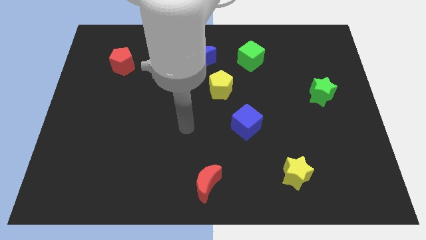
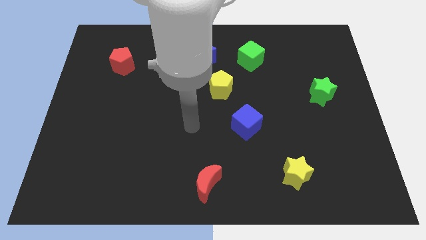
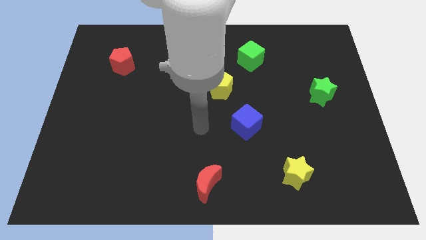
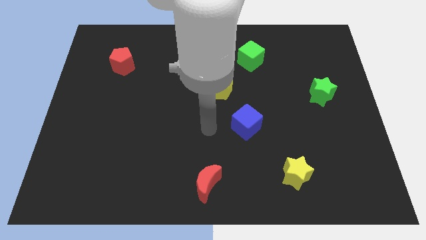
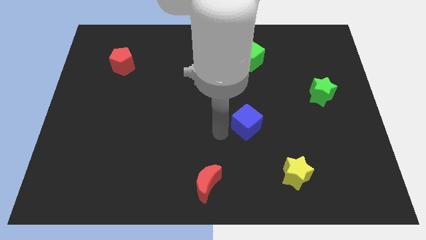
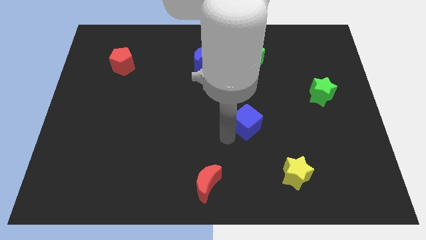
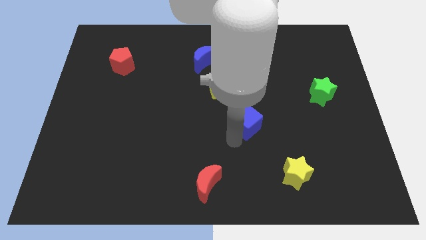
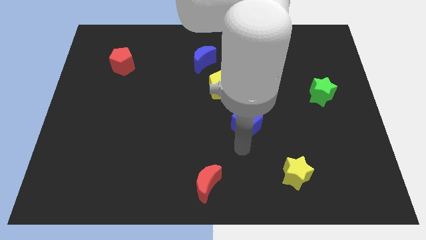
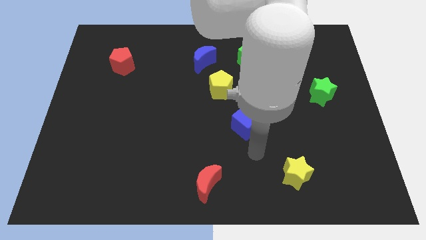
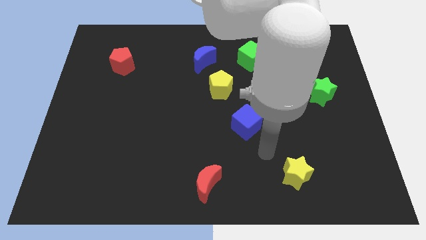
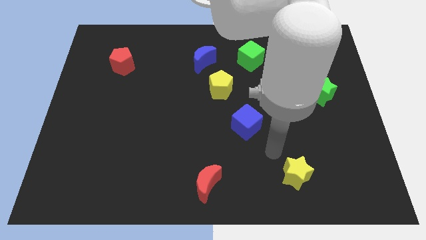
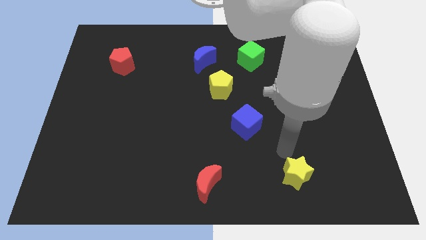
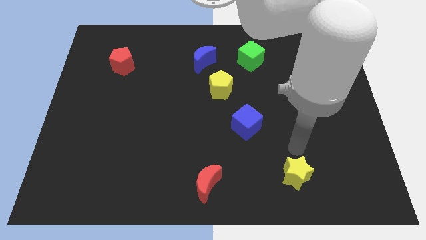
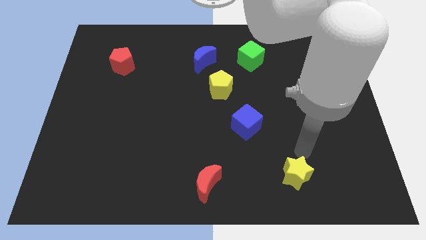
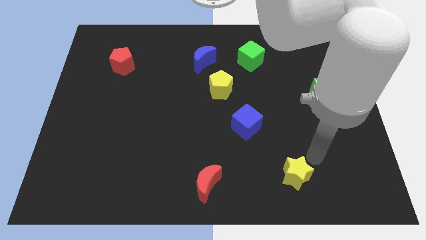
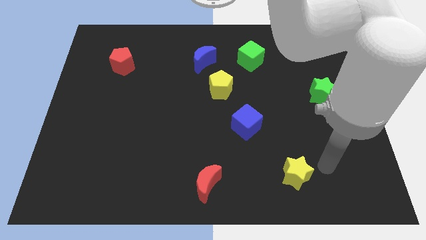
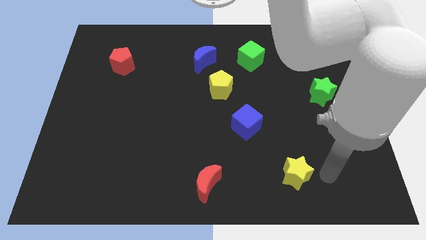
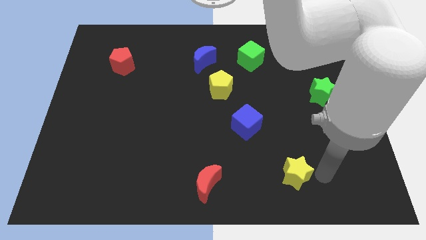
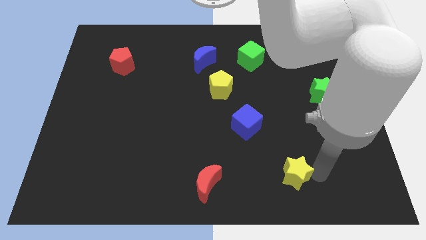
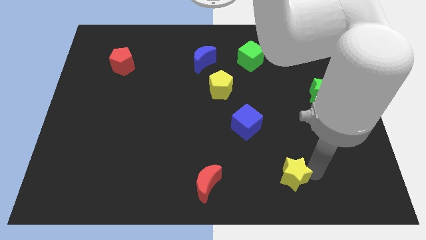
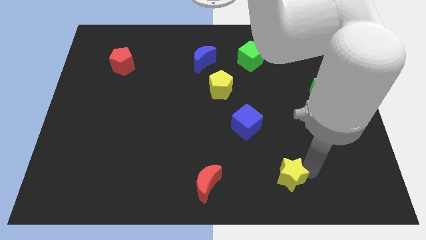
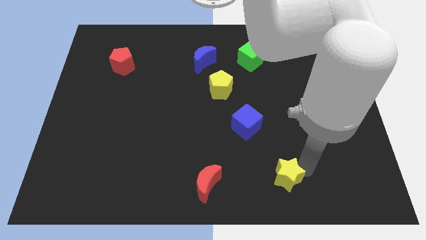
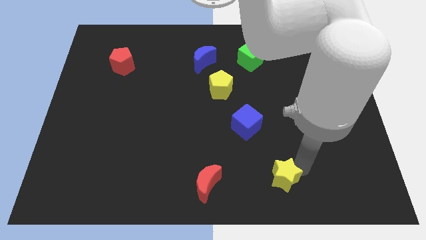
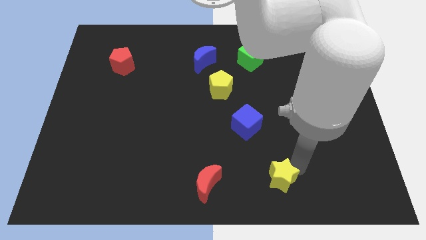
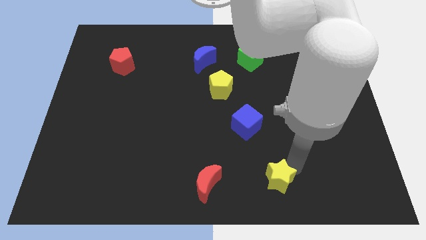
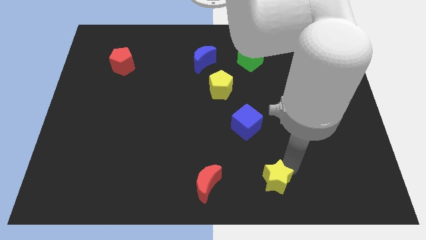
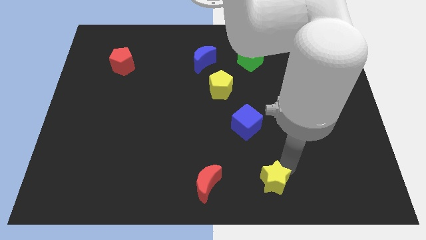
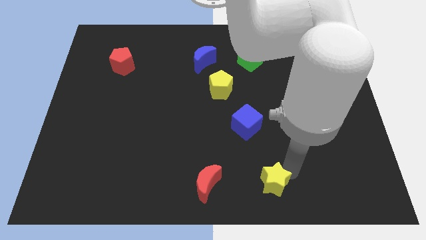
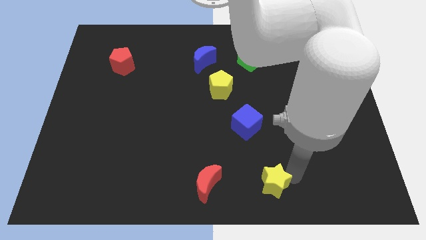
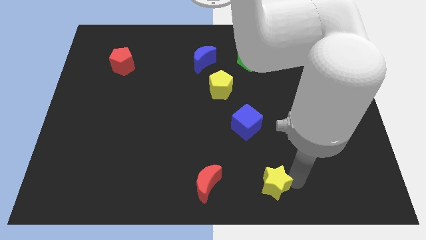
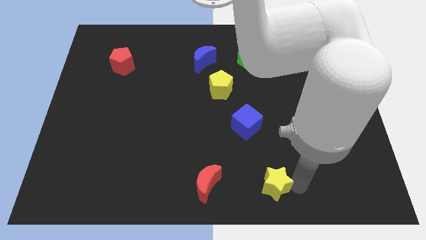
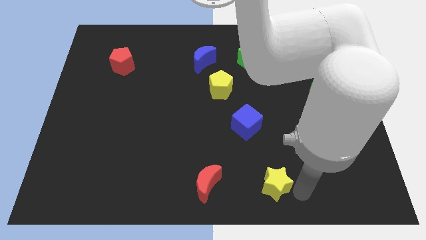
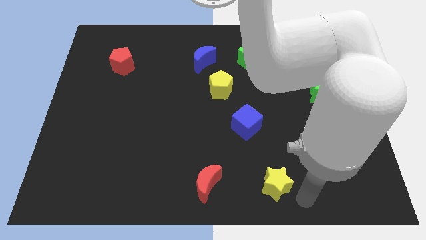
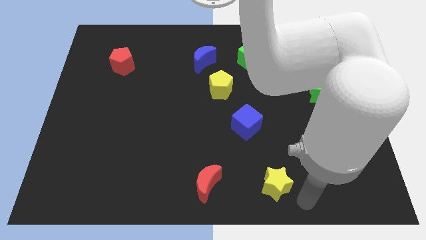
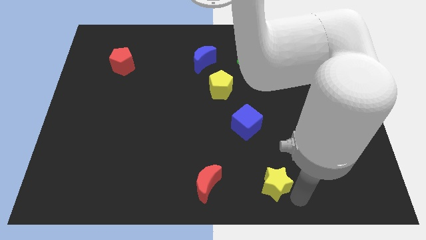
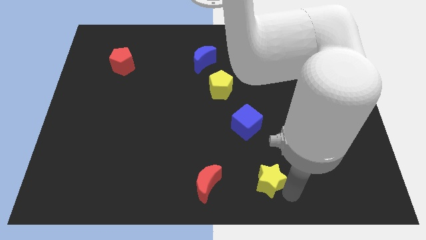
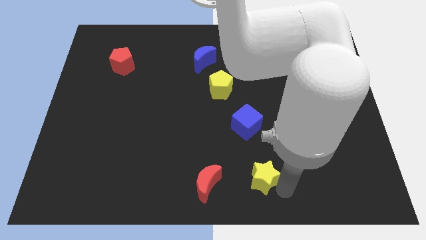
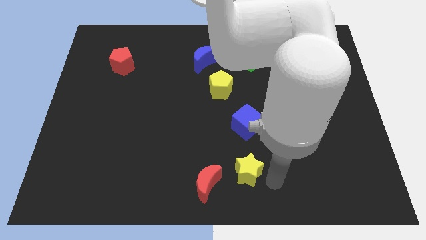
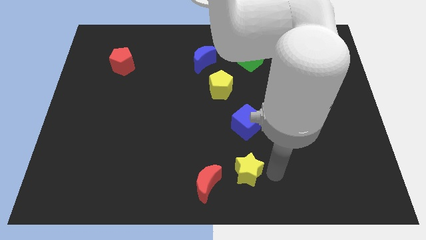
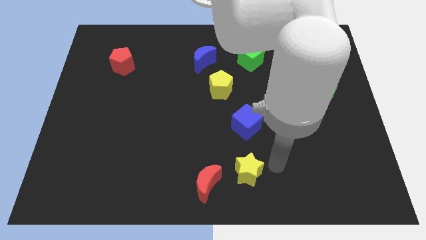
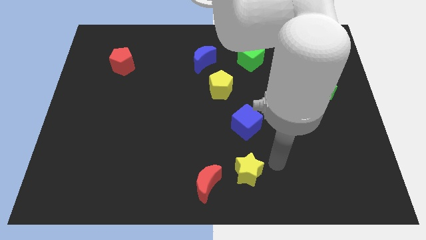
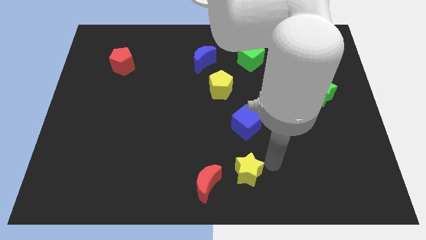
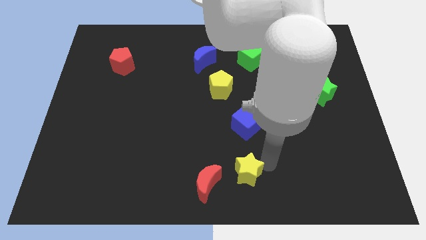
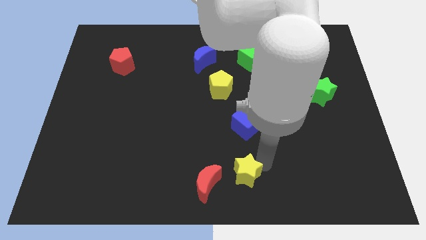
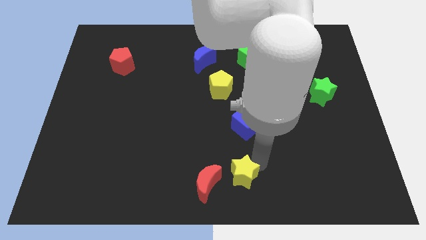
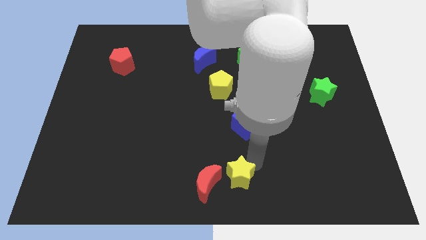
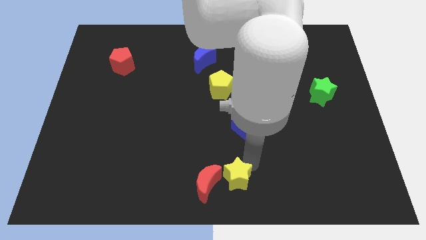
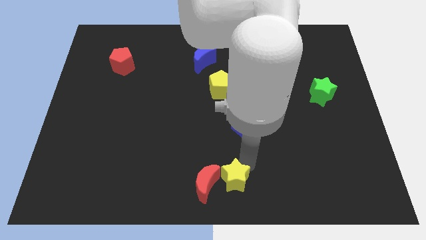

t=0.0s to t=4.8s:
put the yellow star towards the red moon

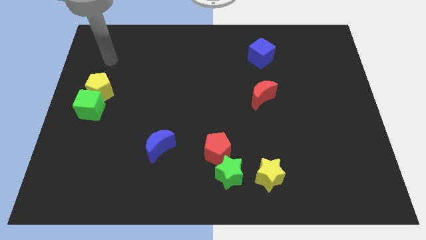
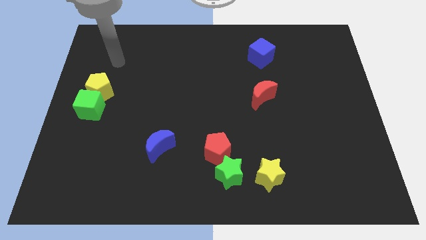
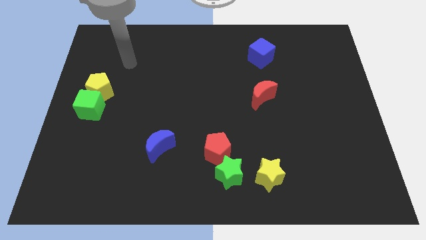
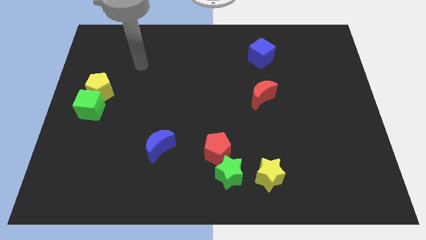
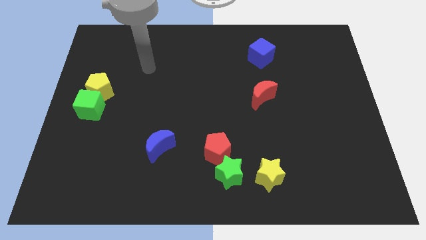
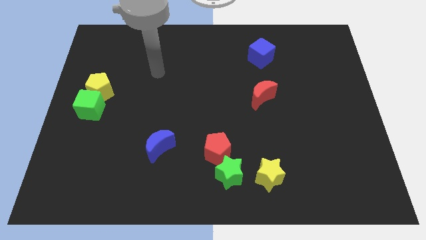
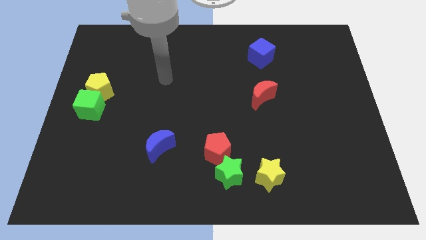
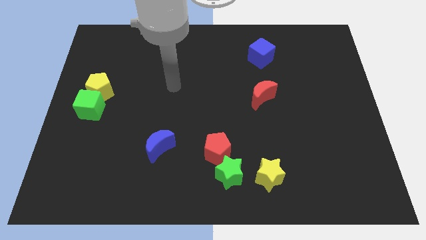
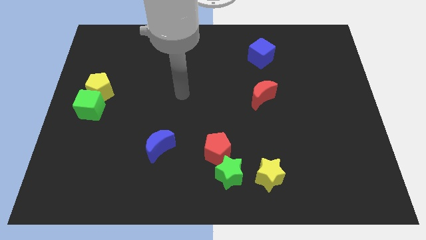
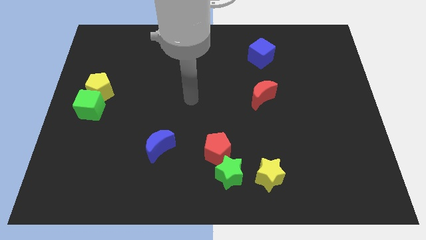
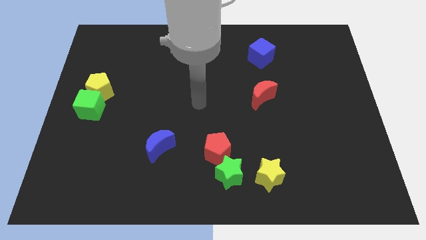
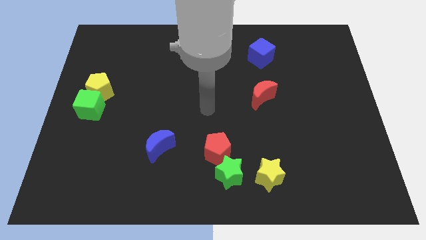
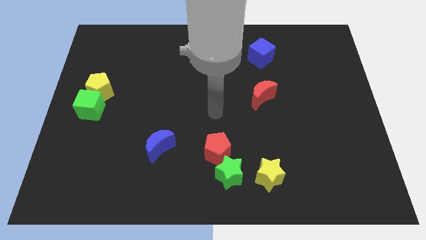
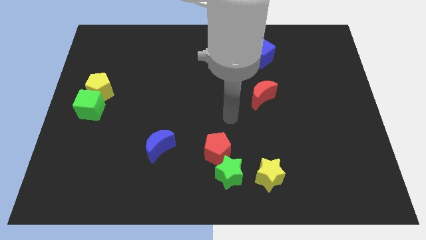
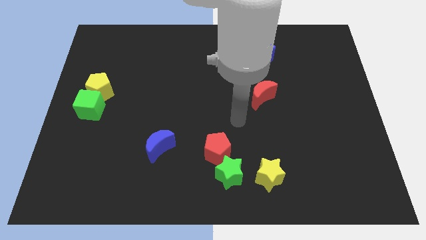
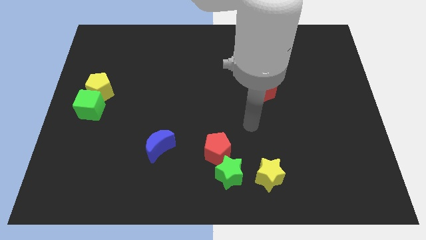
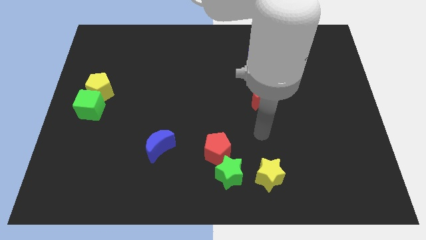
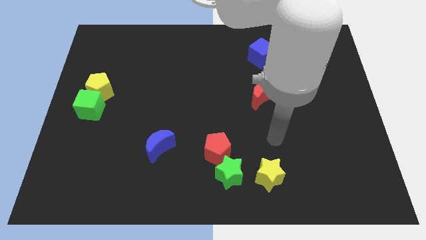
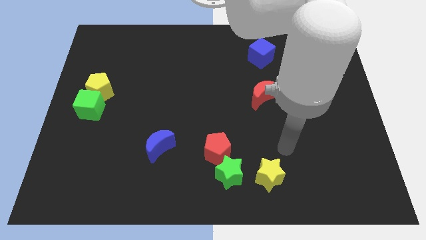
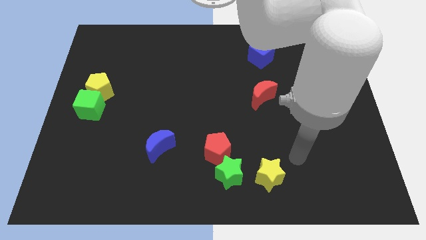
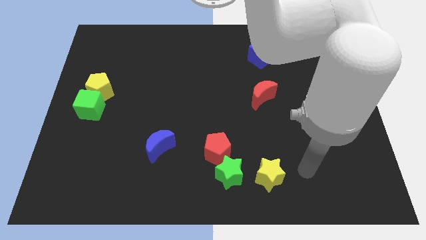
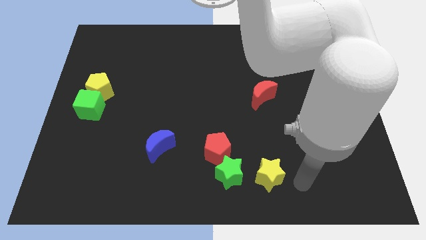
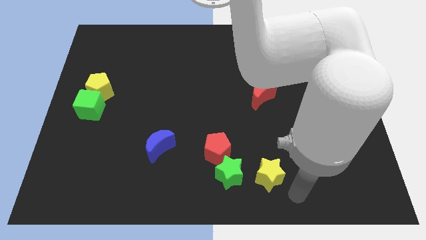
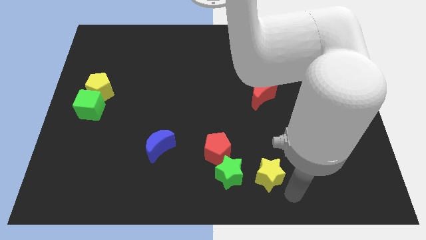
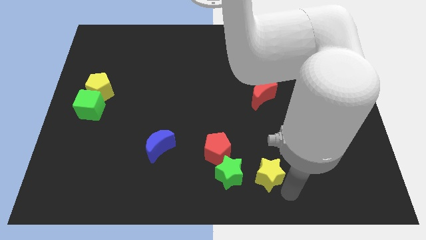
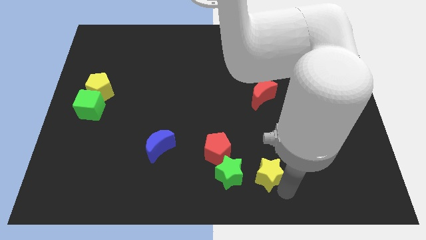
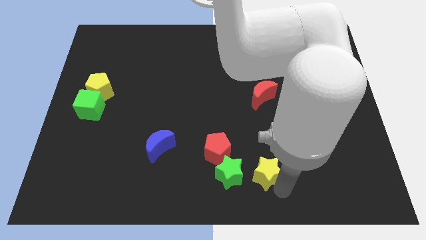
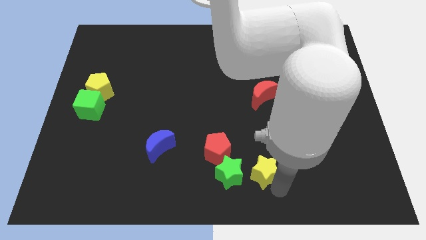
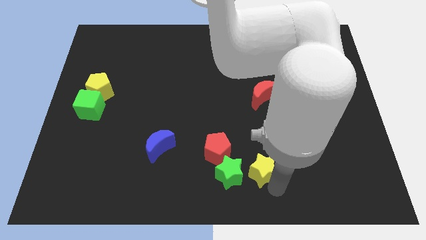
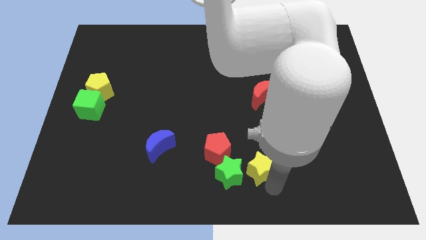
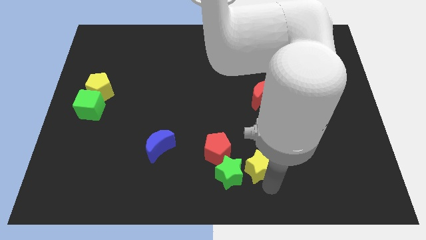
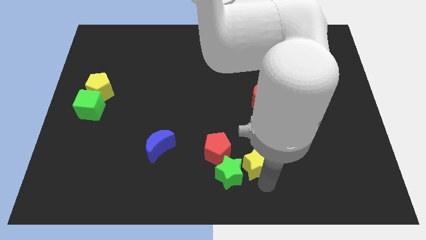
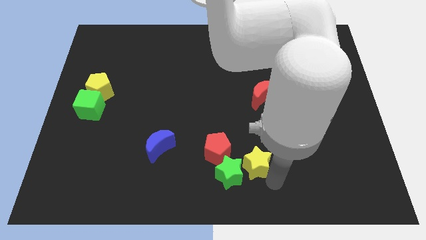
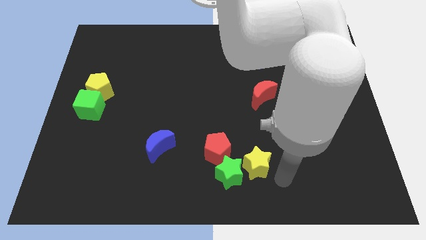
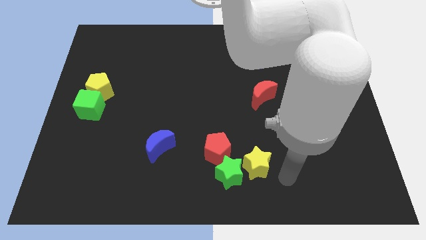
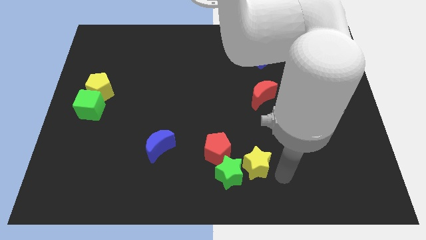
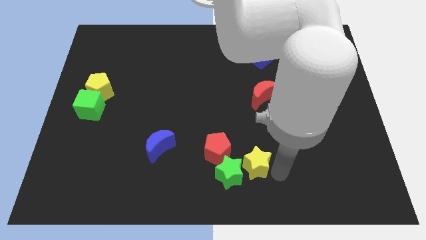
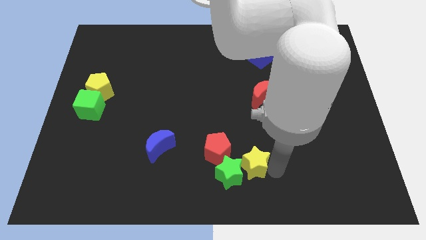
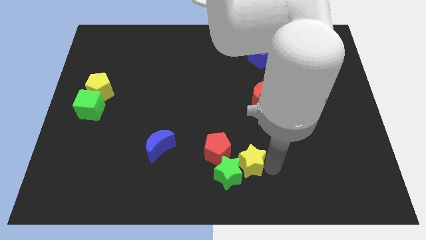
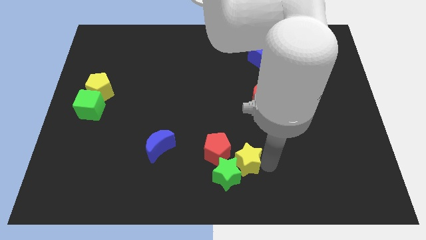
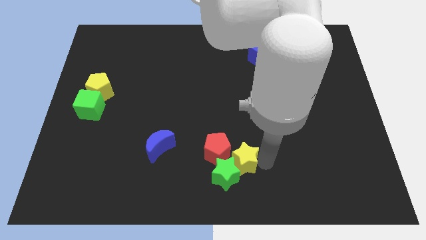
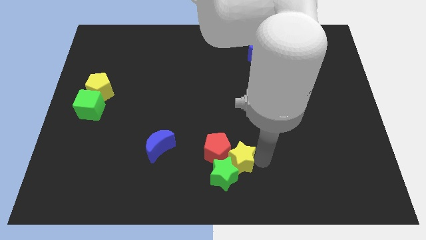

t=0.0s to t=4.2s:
move the yellow star next to the red pentagon
